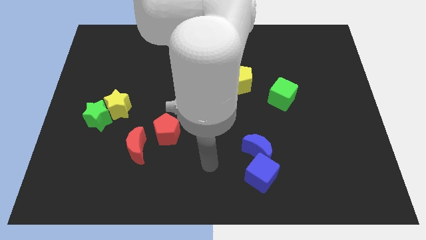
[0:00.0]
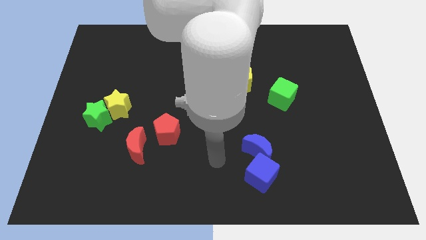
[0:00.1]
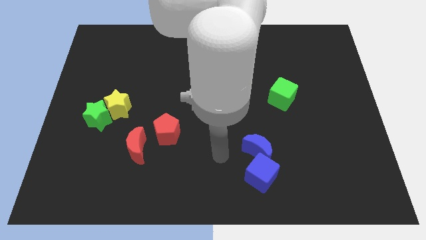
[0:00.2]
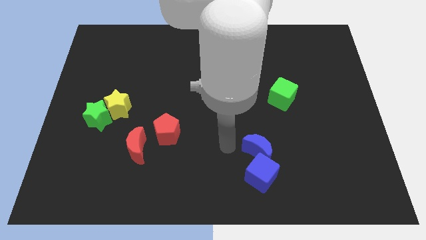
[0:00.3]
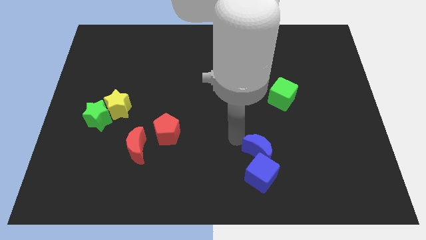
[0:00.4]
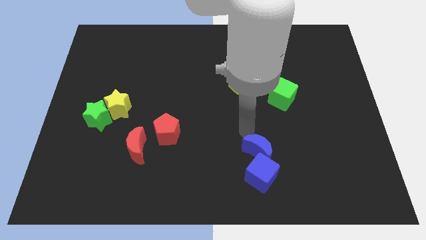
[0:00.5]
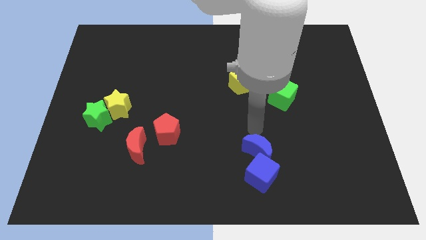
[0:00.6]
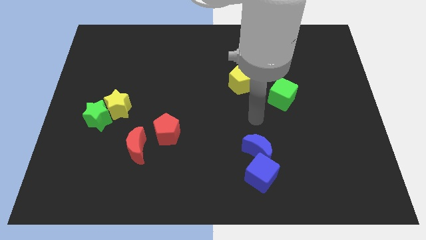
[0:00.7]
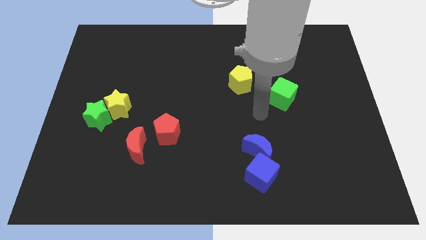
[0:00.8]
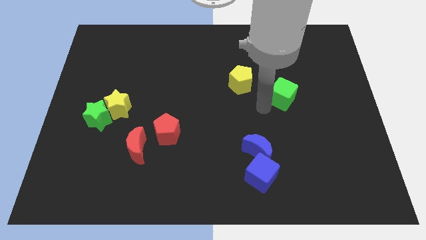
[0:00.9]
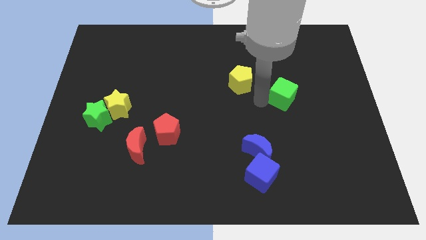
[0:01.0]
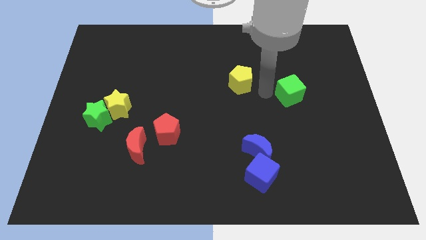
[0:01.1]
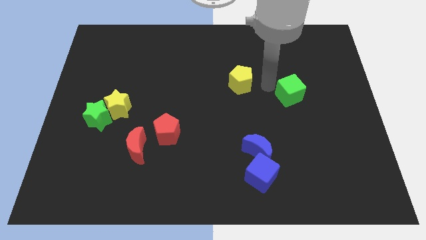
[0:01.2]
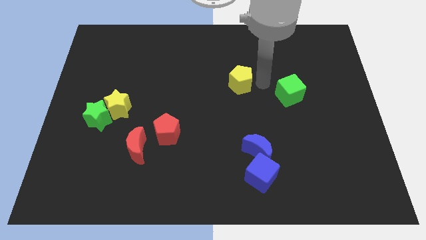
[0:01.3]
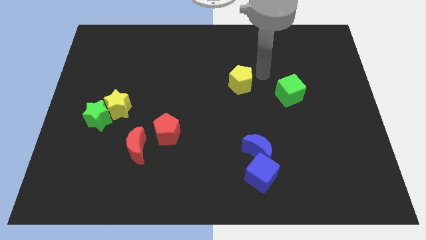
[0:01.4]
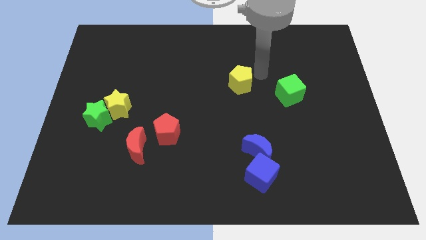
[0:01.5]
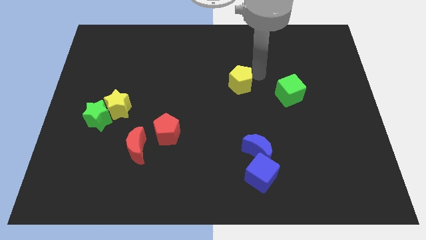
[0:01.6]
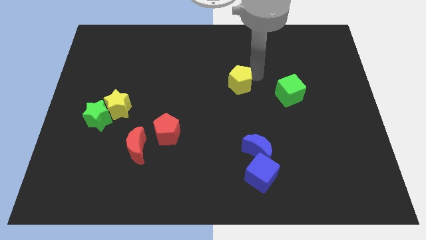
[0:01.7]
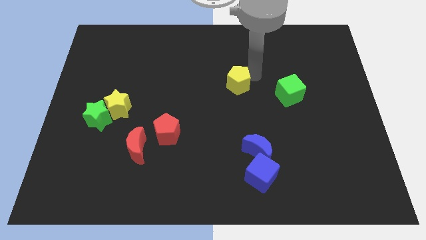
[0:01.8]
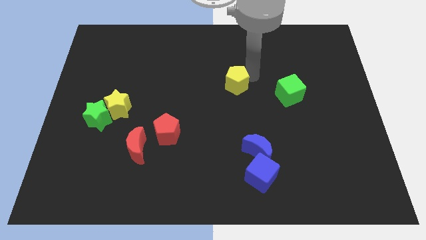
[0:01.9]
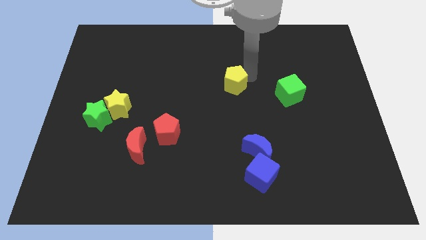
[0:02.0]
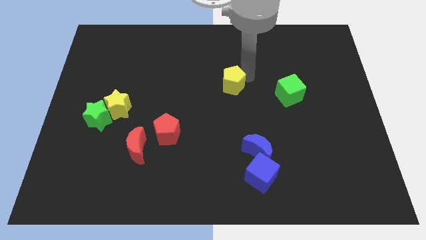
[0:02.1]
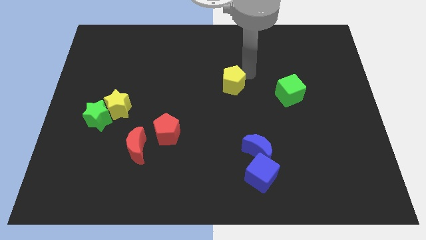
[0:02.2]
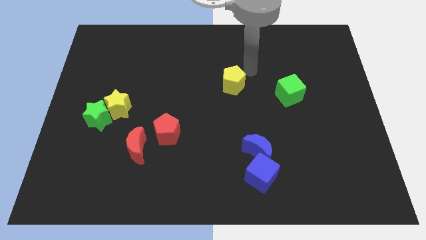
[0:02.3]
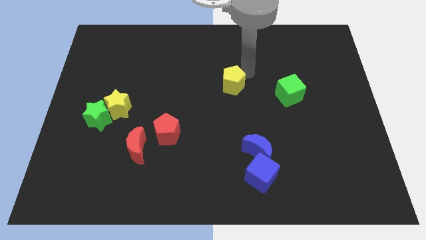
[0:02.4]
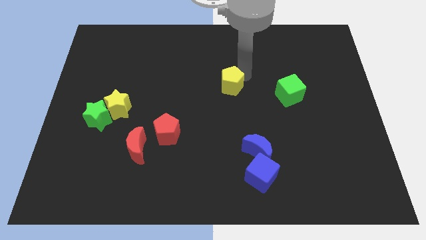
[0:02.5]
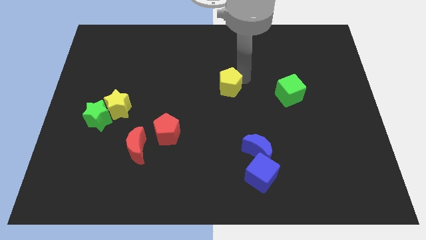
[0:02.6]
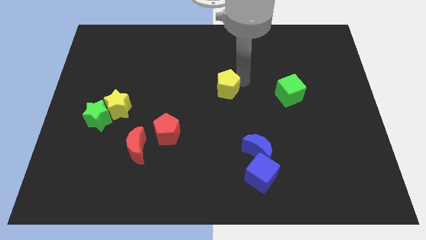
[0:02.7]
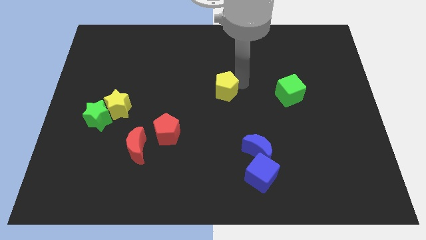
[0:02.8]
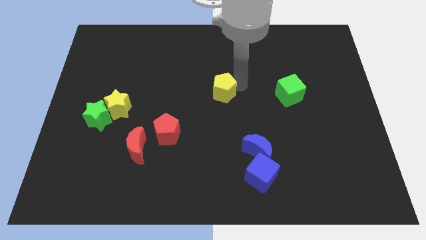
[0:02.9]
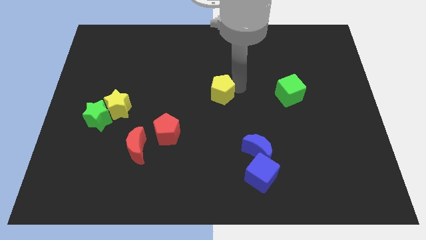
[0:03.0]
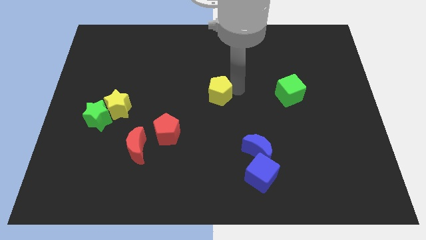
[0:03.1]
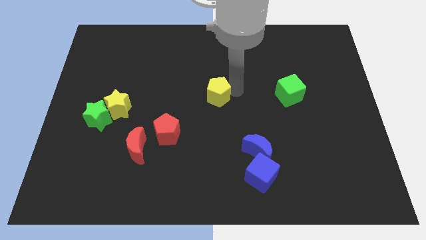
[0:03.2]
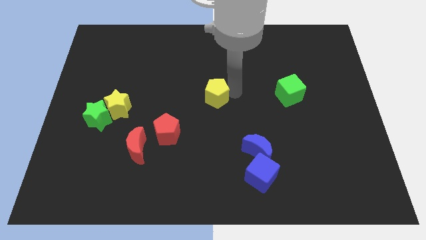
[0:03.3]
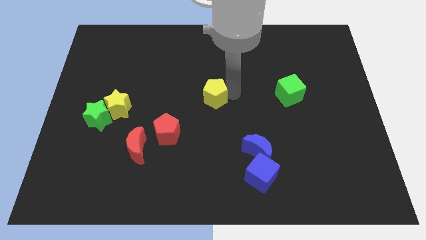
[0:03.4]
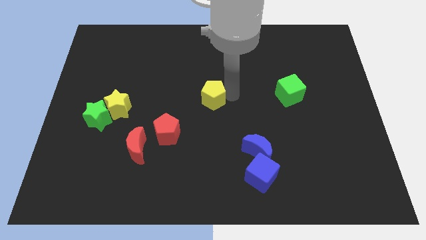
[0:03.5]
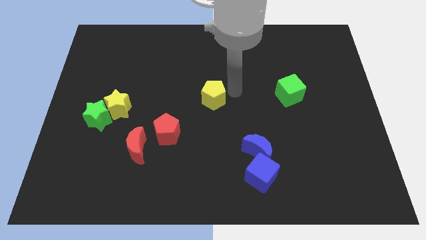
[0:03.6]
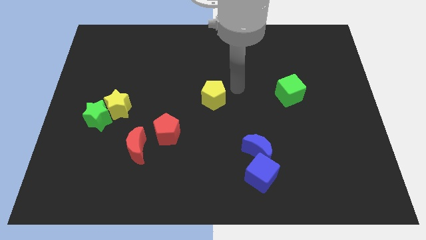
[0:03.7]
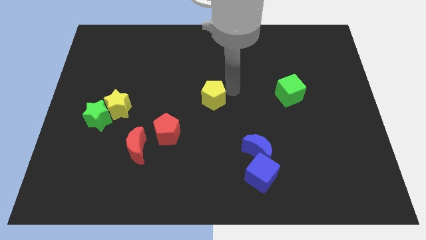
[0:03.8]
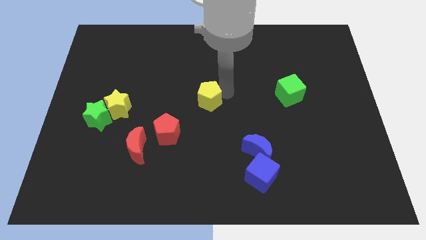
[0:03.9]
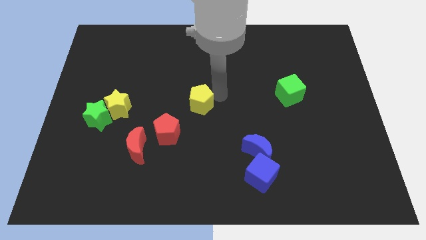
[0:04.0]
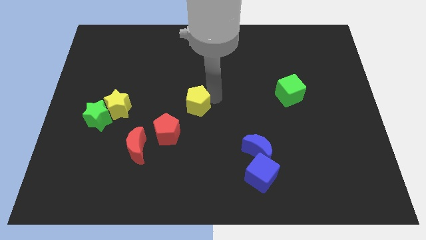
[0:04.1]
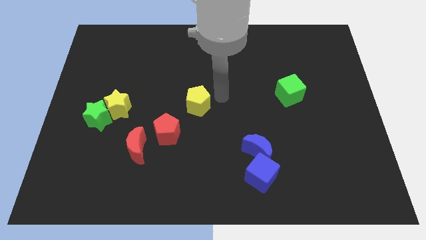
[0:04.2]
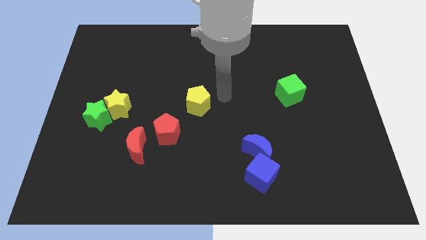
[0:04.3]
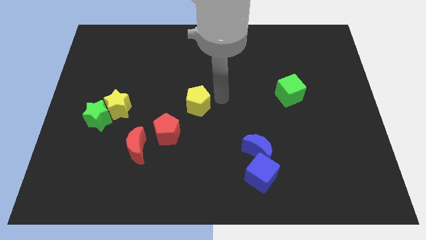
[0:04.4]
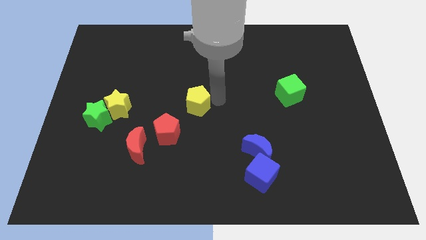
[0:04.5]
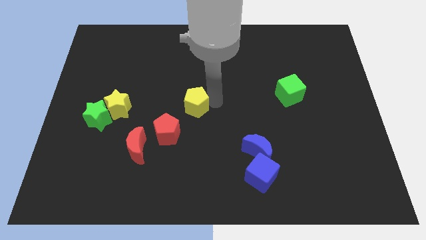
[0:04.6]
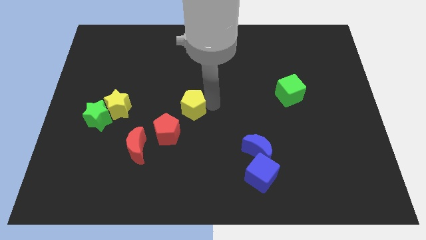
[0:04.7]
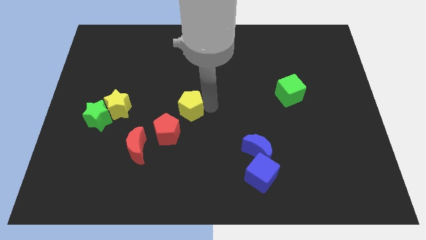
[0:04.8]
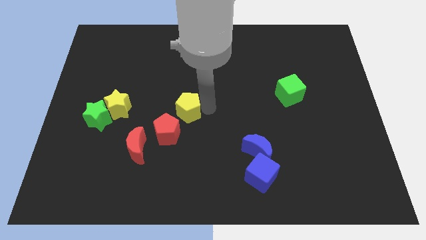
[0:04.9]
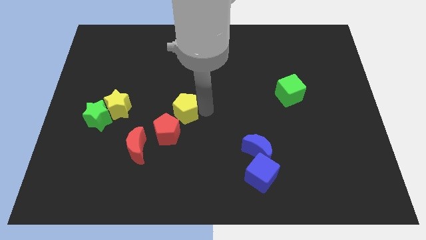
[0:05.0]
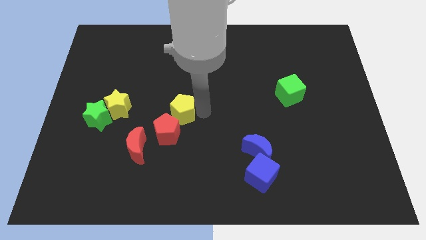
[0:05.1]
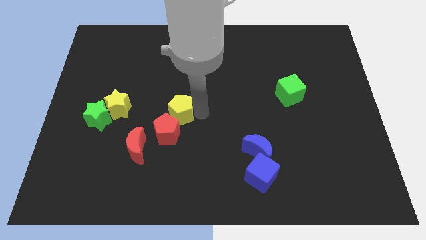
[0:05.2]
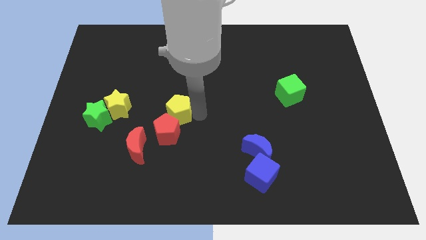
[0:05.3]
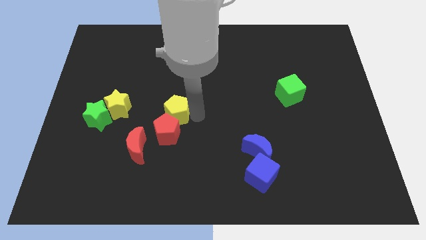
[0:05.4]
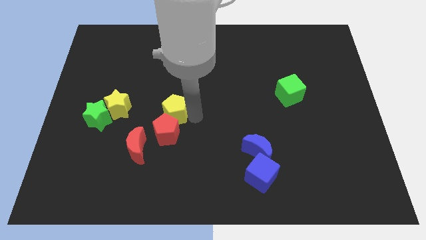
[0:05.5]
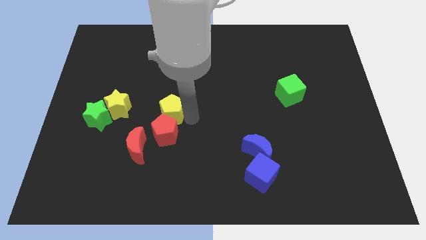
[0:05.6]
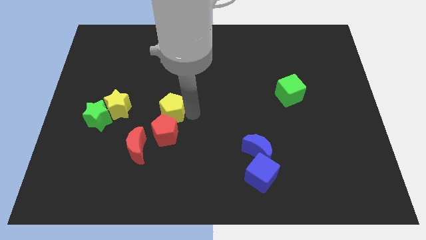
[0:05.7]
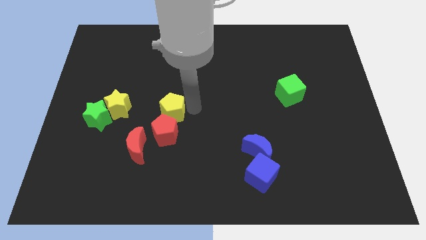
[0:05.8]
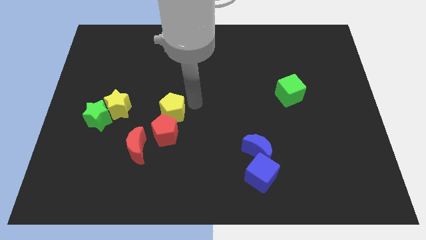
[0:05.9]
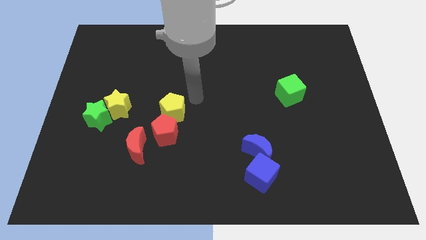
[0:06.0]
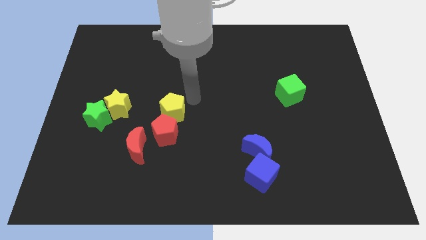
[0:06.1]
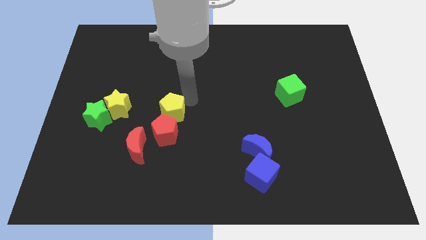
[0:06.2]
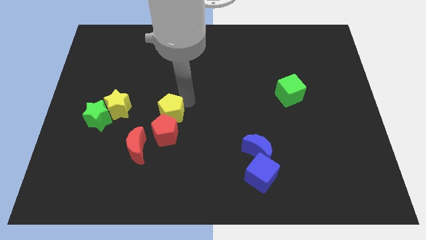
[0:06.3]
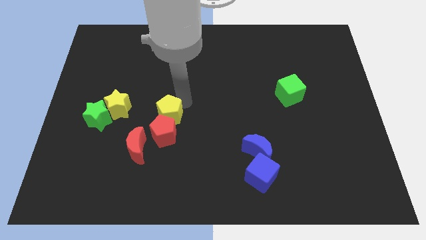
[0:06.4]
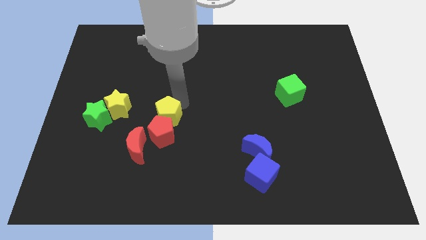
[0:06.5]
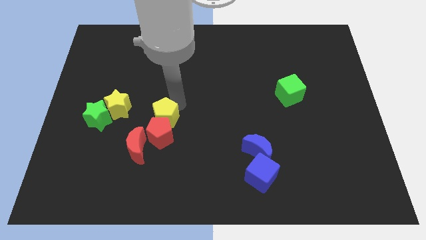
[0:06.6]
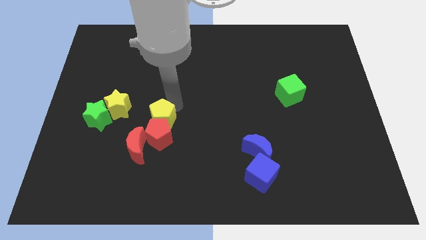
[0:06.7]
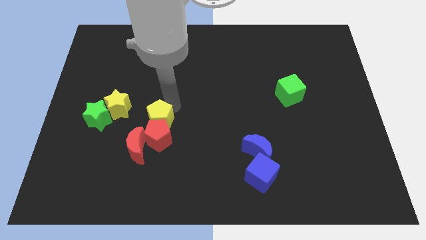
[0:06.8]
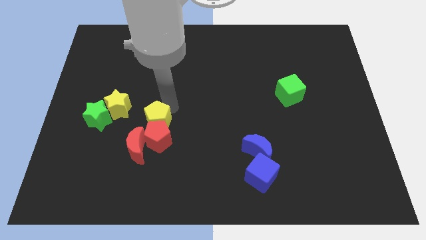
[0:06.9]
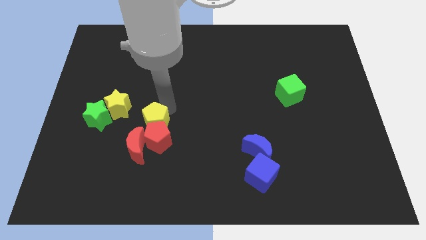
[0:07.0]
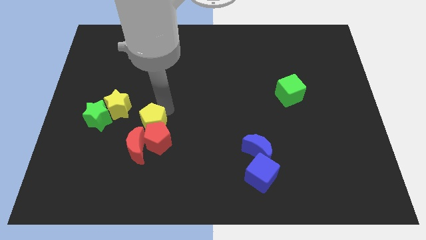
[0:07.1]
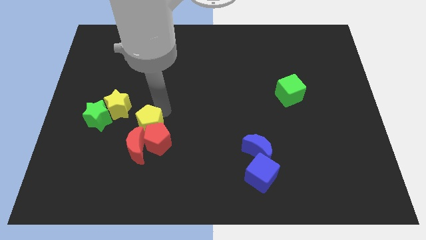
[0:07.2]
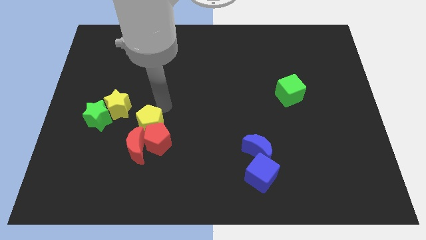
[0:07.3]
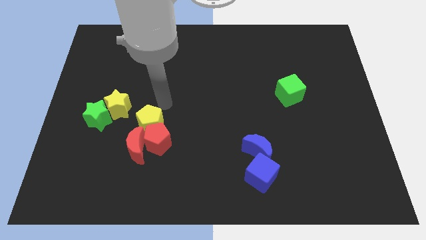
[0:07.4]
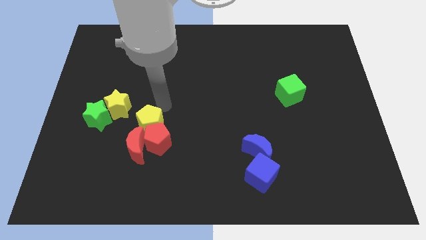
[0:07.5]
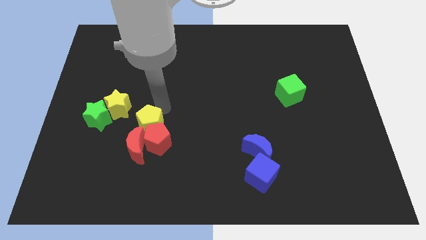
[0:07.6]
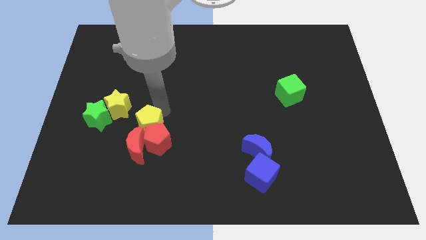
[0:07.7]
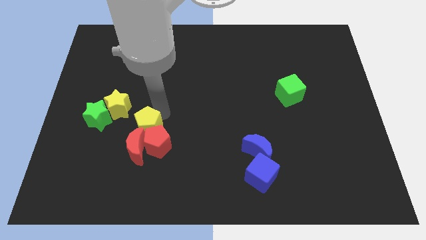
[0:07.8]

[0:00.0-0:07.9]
slide the yellow pentagon to the red moon

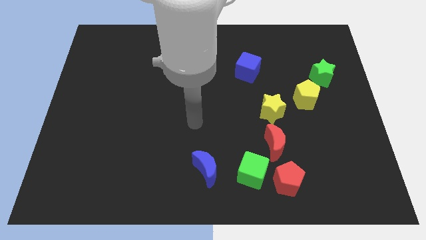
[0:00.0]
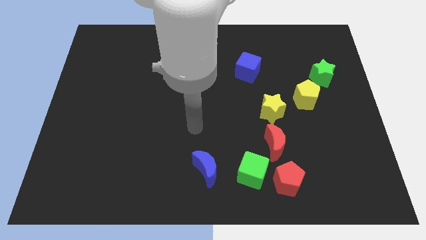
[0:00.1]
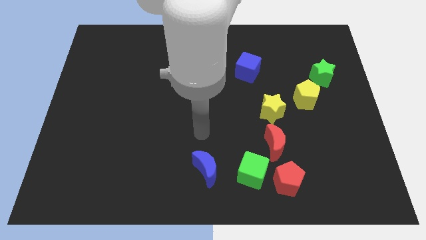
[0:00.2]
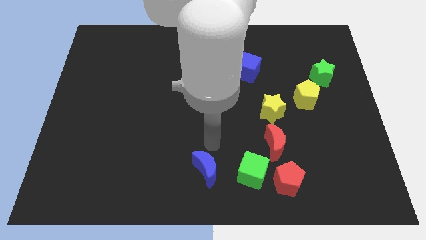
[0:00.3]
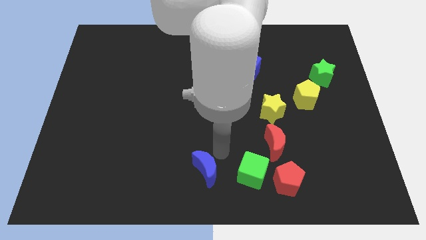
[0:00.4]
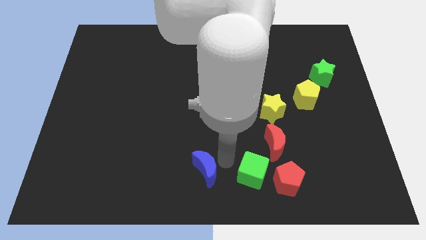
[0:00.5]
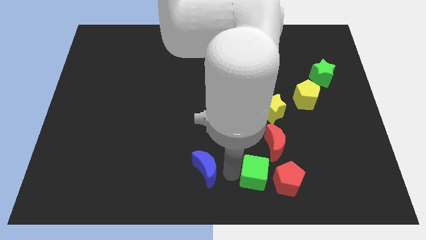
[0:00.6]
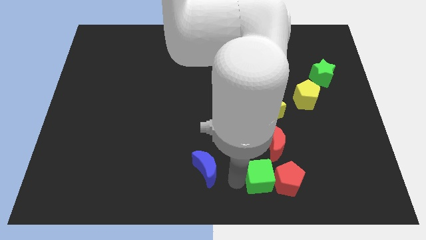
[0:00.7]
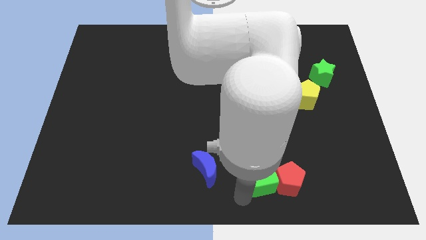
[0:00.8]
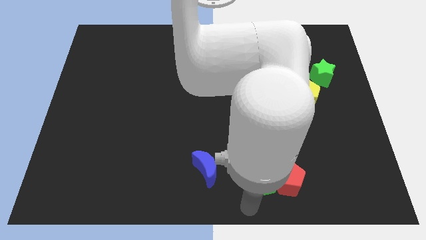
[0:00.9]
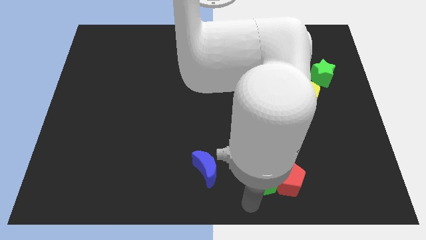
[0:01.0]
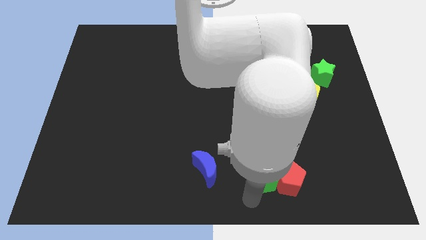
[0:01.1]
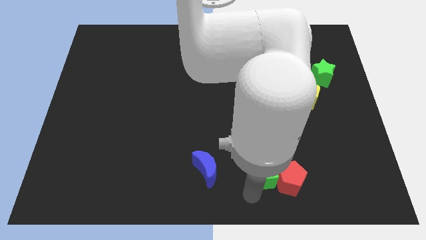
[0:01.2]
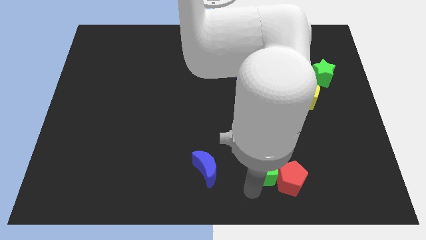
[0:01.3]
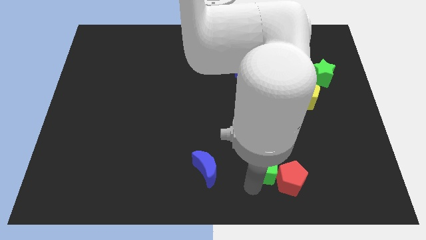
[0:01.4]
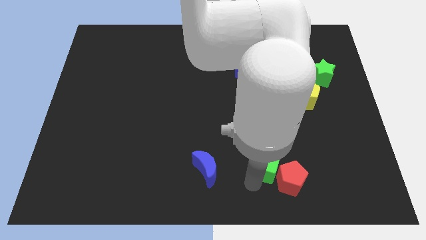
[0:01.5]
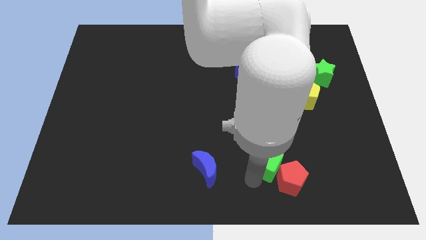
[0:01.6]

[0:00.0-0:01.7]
move the green cube next to the red moon
